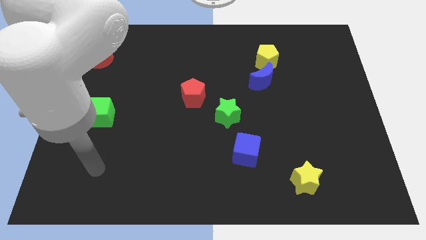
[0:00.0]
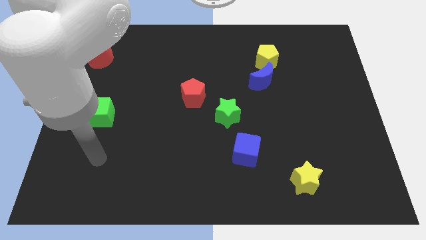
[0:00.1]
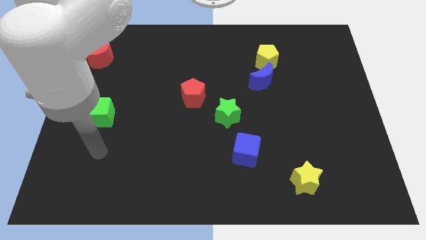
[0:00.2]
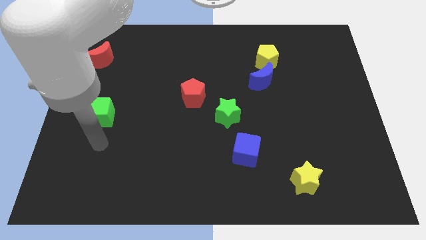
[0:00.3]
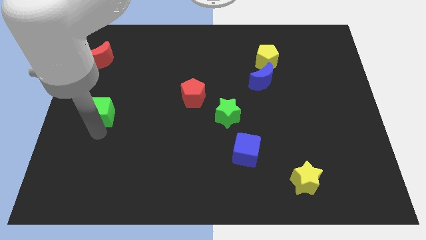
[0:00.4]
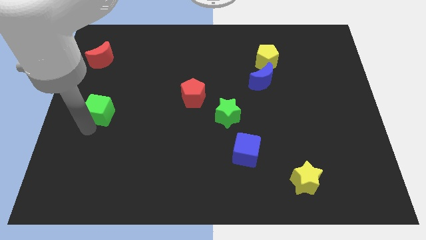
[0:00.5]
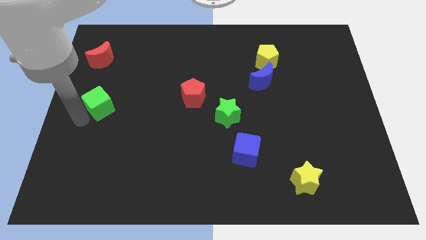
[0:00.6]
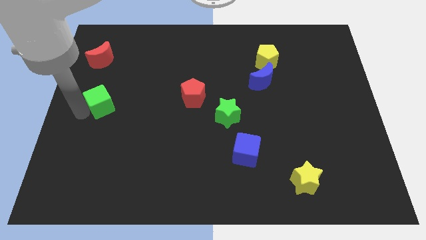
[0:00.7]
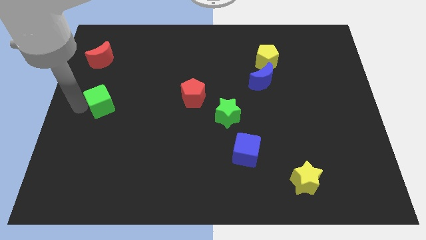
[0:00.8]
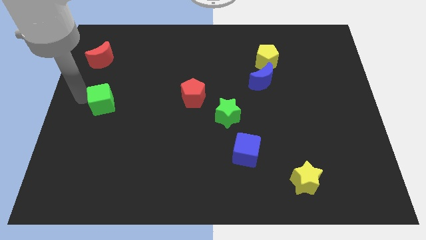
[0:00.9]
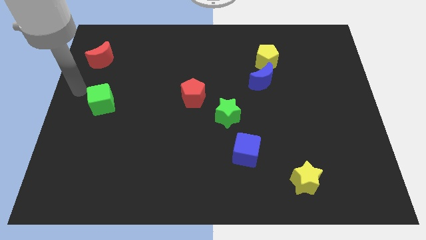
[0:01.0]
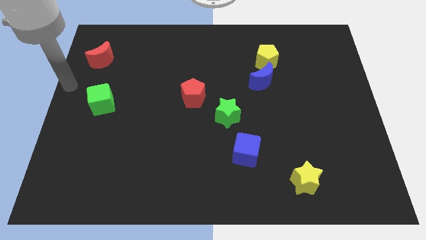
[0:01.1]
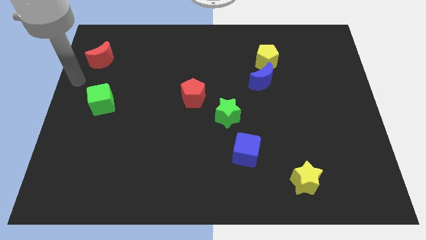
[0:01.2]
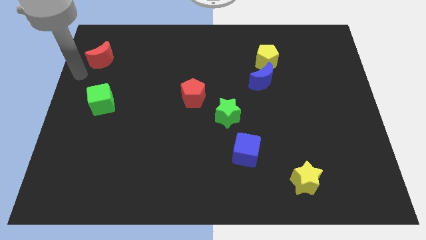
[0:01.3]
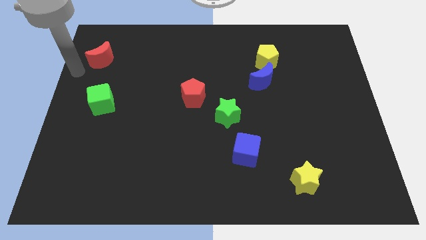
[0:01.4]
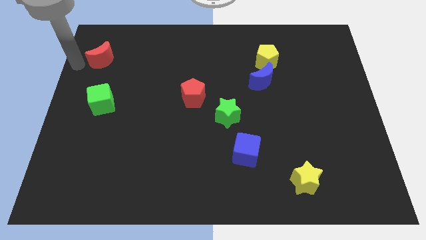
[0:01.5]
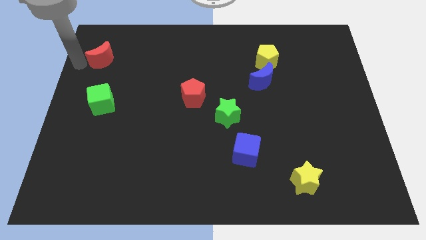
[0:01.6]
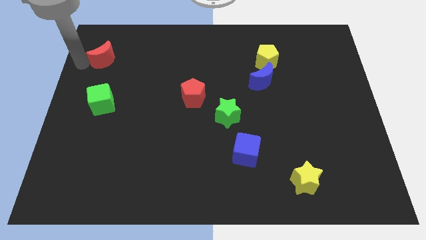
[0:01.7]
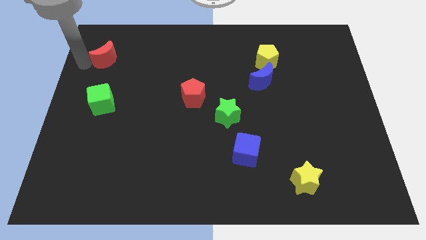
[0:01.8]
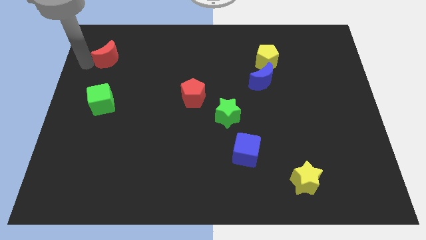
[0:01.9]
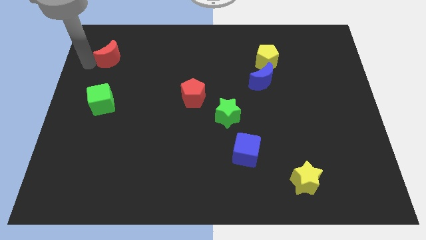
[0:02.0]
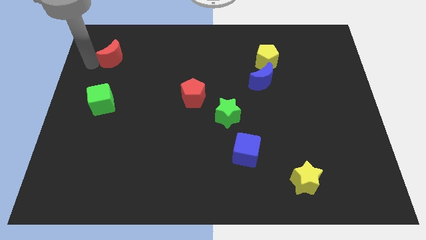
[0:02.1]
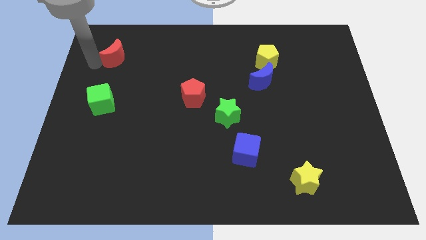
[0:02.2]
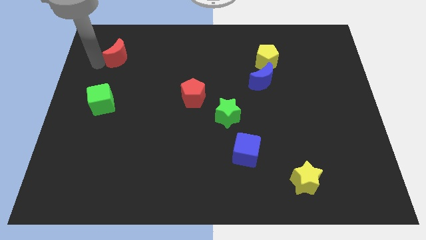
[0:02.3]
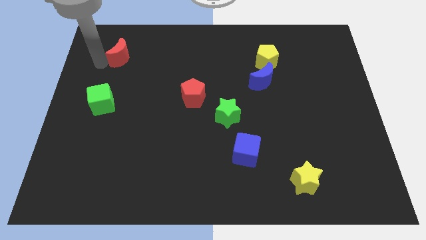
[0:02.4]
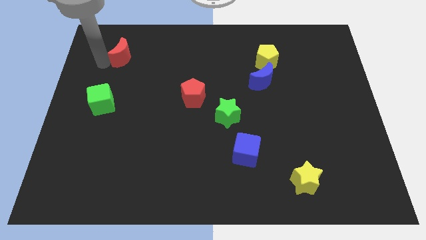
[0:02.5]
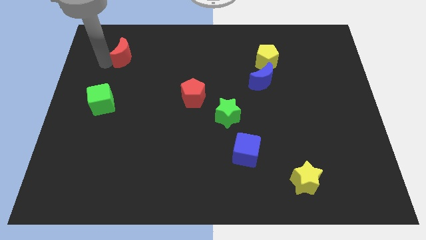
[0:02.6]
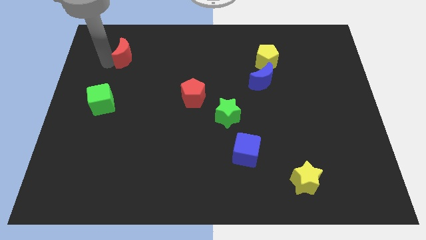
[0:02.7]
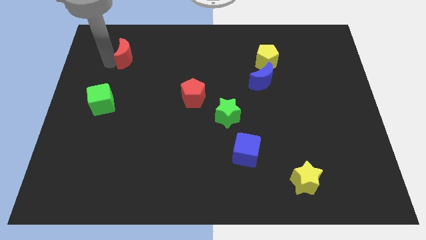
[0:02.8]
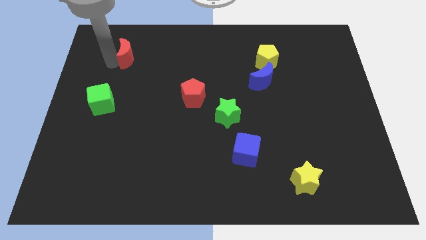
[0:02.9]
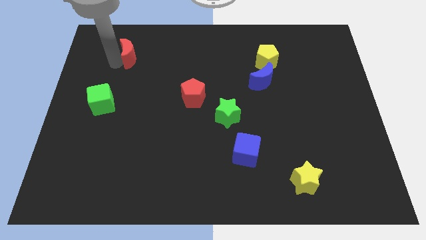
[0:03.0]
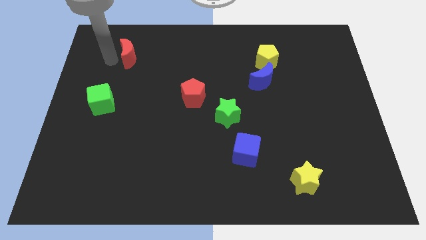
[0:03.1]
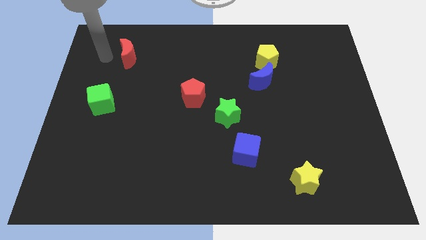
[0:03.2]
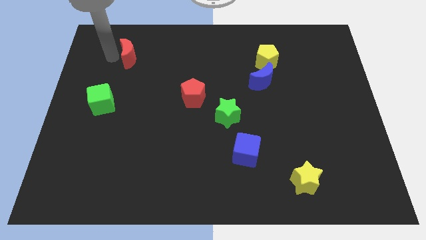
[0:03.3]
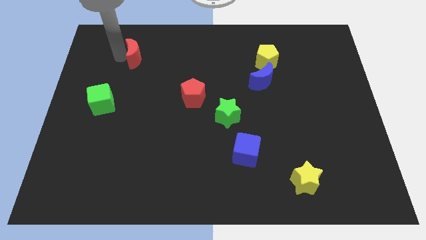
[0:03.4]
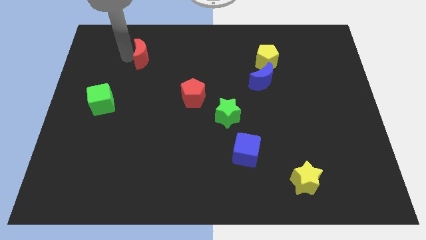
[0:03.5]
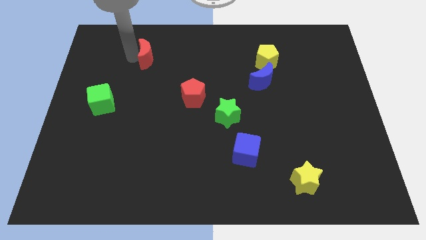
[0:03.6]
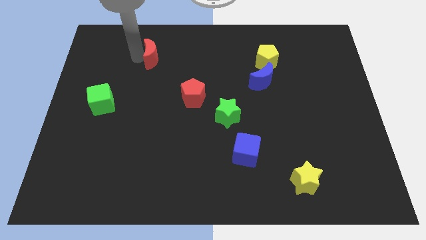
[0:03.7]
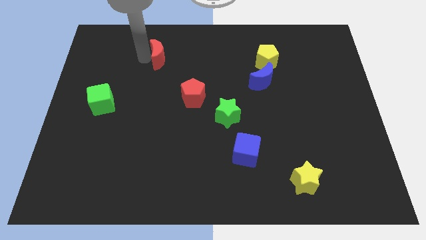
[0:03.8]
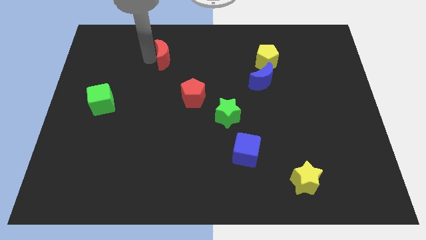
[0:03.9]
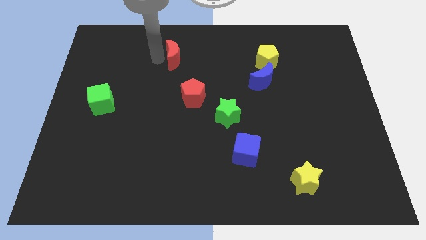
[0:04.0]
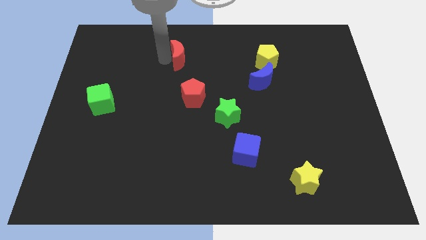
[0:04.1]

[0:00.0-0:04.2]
push the red moon to the right

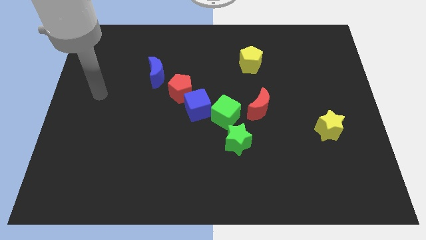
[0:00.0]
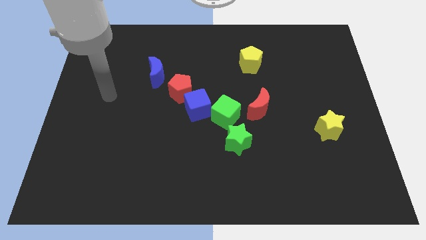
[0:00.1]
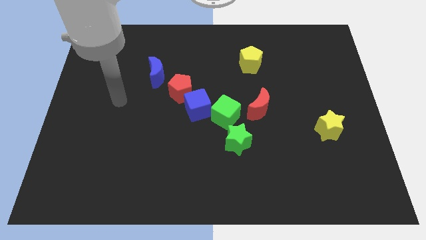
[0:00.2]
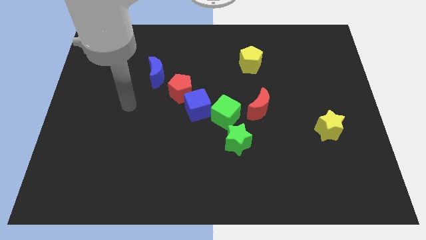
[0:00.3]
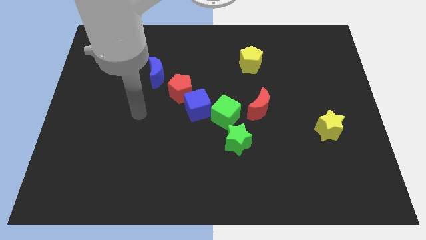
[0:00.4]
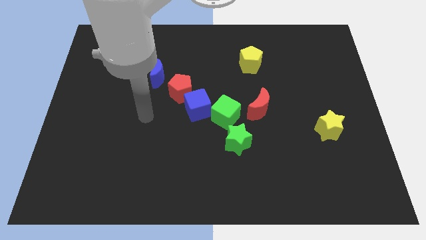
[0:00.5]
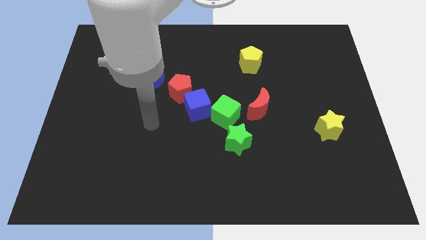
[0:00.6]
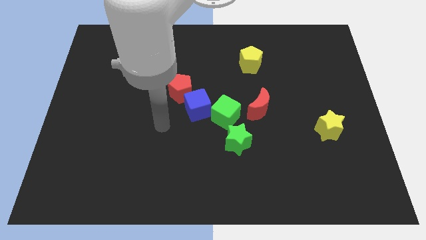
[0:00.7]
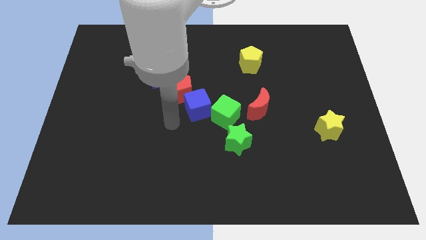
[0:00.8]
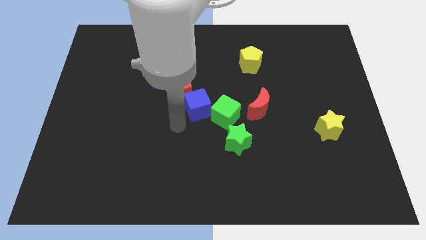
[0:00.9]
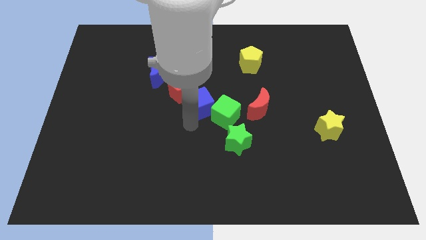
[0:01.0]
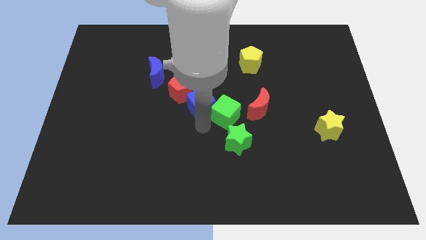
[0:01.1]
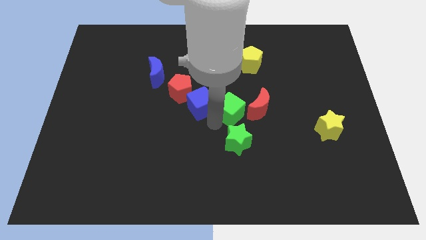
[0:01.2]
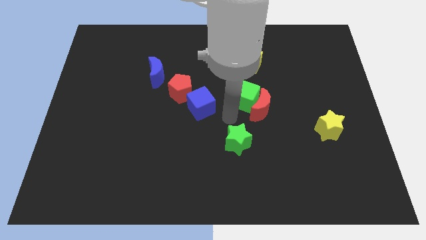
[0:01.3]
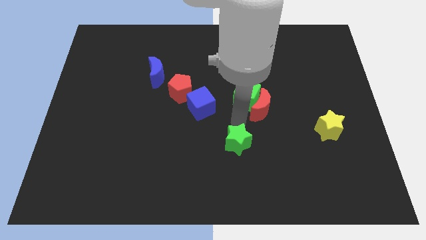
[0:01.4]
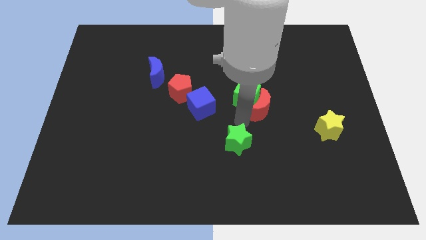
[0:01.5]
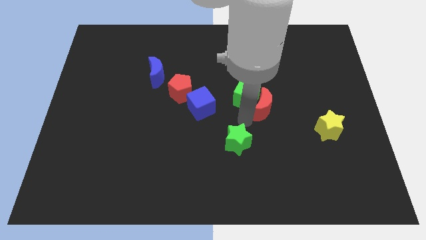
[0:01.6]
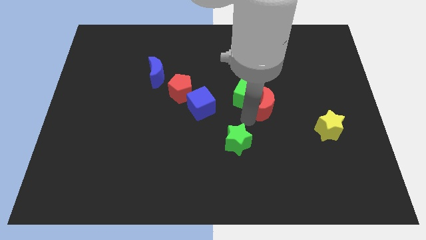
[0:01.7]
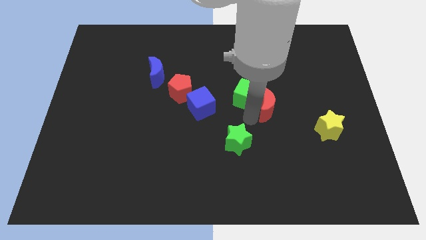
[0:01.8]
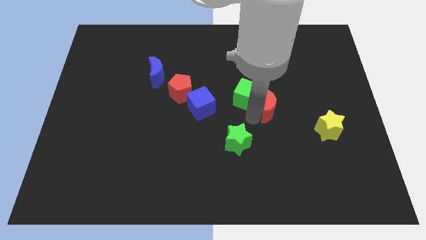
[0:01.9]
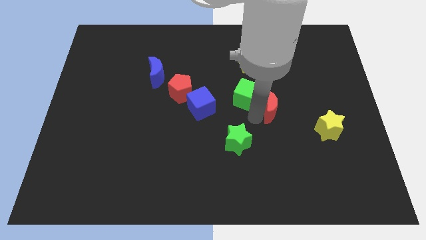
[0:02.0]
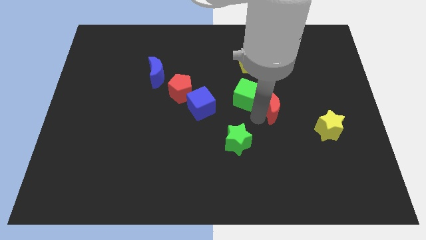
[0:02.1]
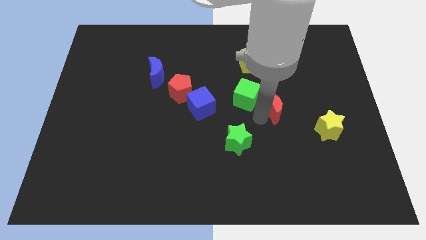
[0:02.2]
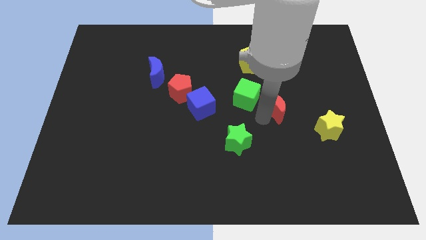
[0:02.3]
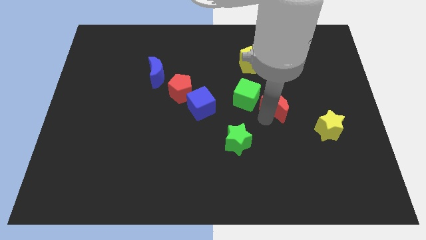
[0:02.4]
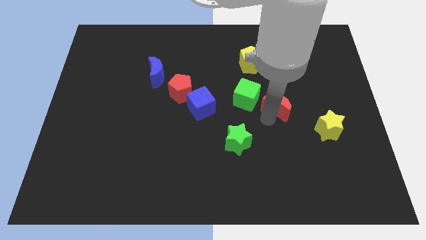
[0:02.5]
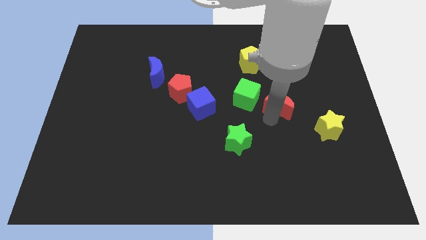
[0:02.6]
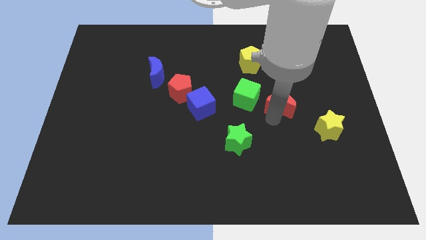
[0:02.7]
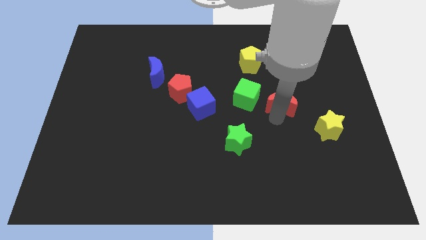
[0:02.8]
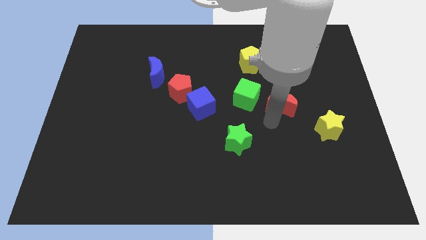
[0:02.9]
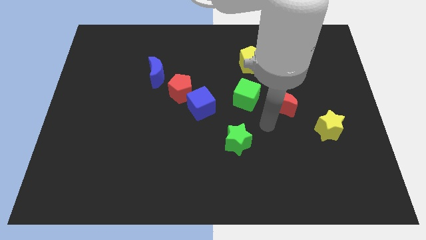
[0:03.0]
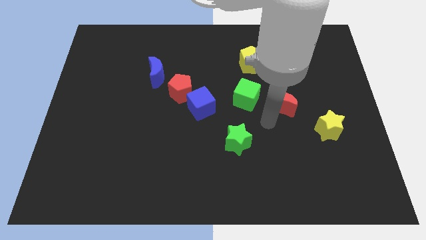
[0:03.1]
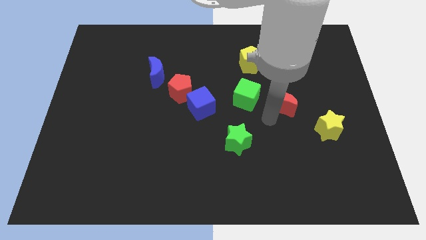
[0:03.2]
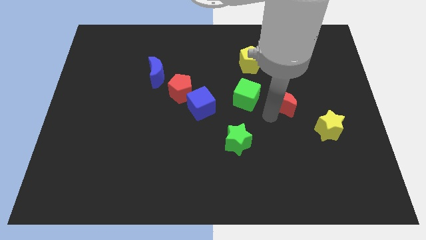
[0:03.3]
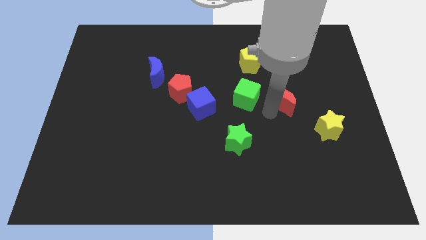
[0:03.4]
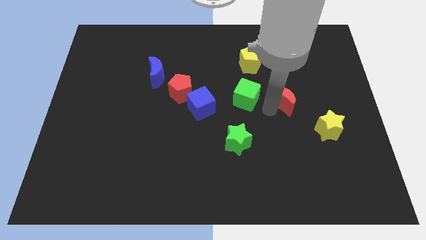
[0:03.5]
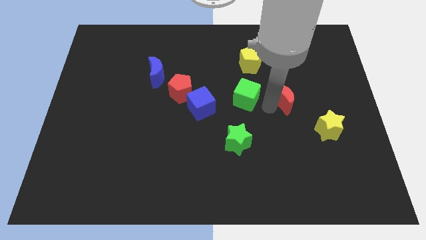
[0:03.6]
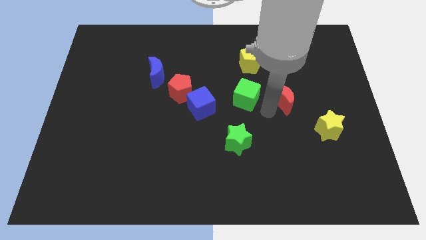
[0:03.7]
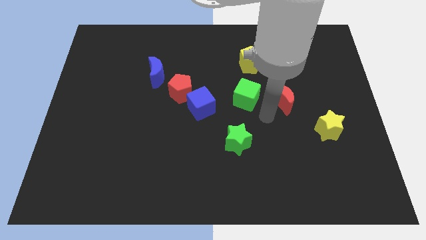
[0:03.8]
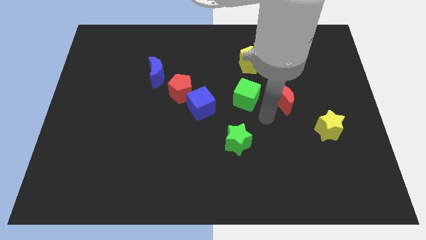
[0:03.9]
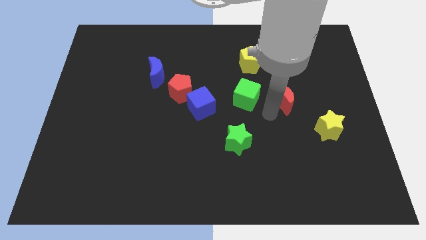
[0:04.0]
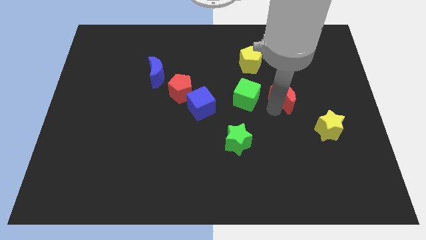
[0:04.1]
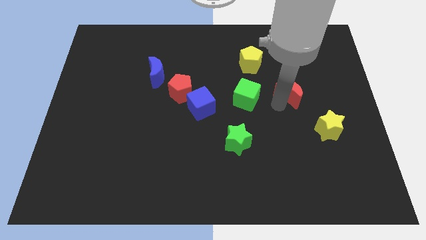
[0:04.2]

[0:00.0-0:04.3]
push the red moon up and then right a bit
